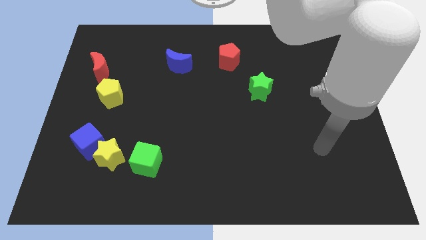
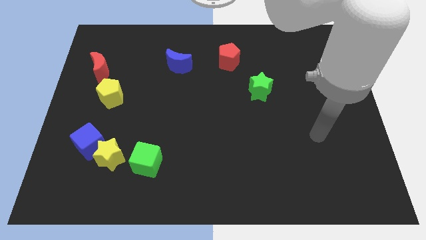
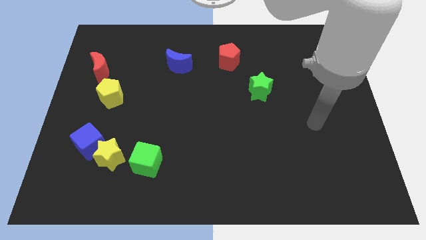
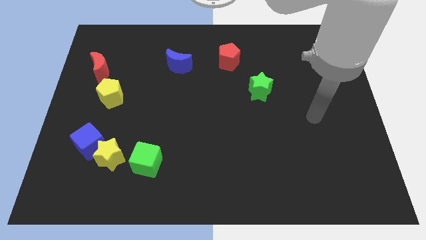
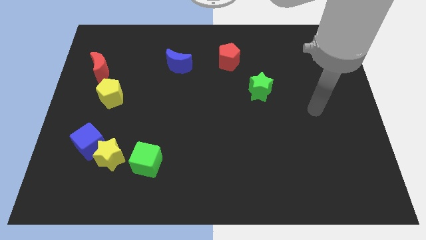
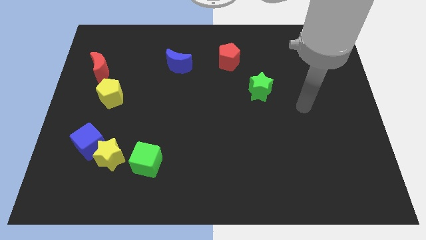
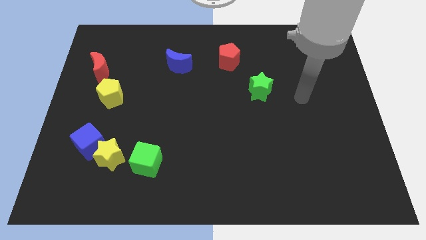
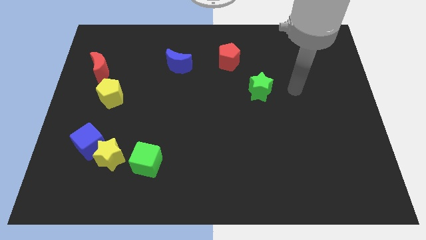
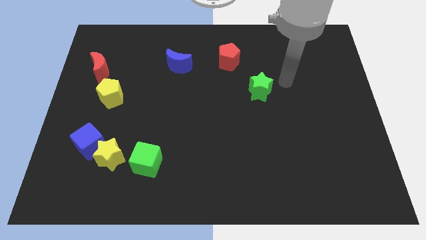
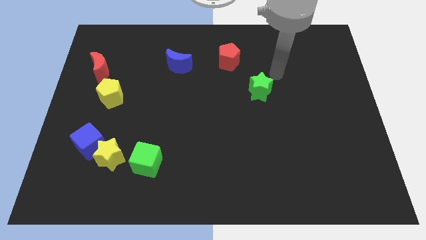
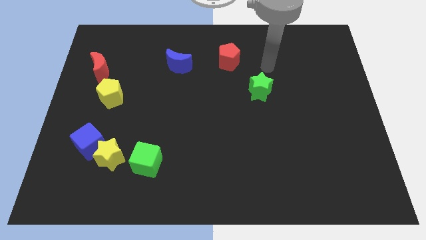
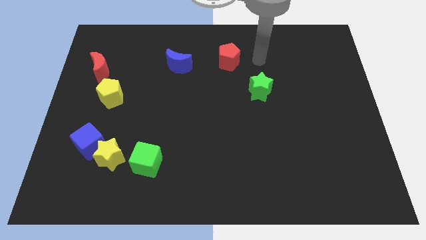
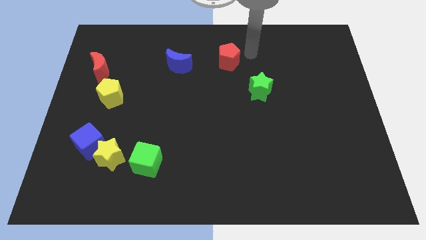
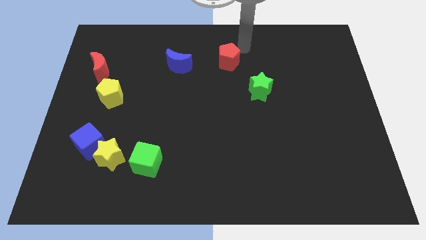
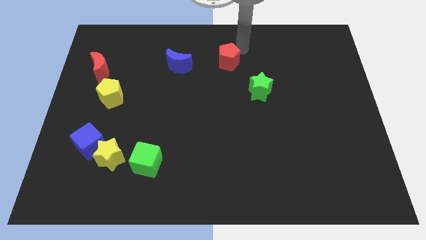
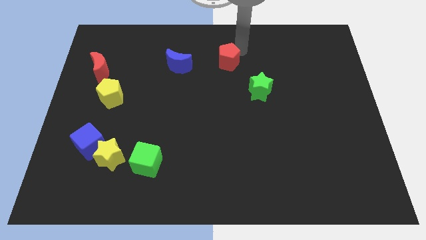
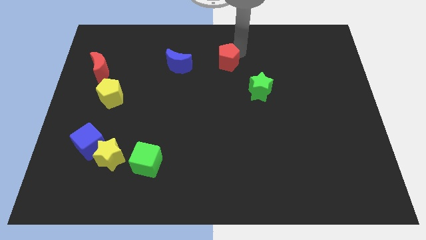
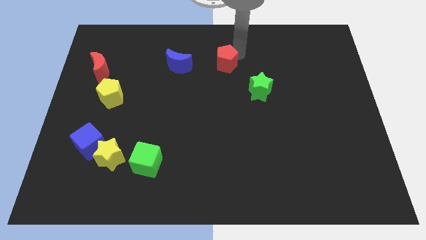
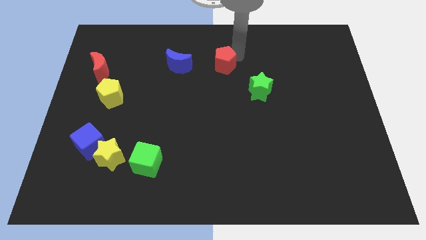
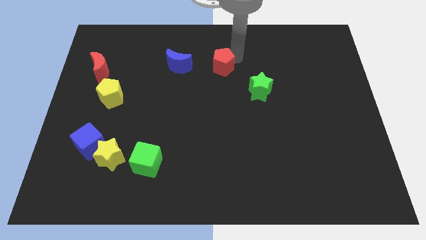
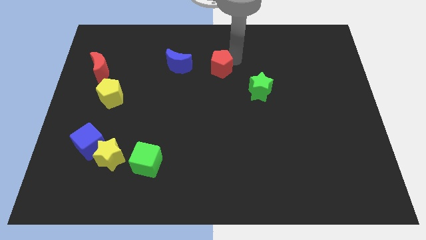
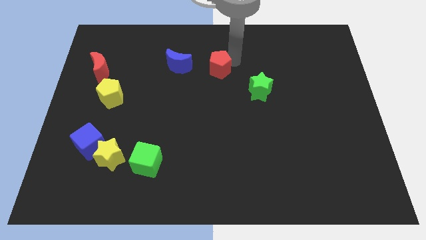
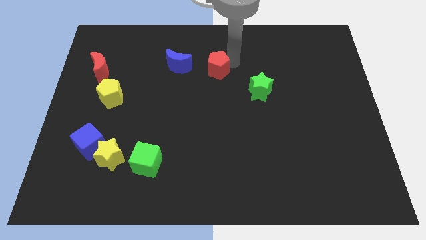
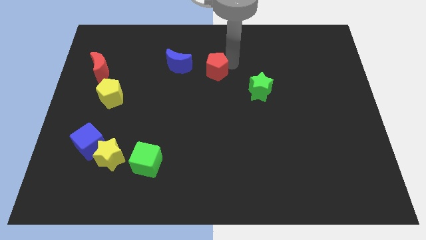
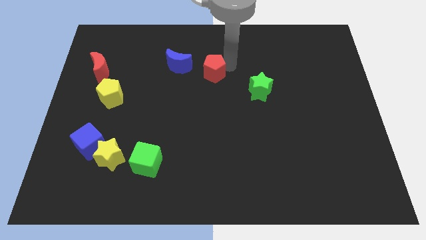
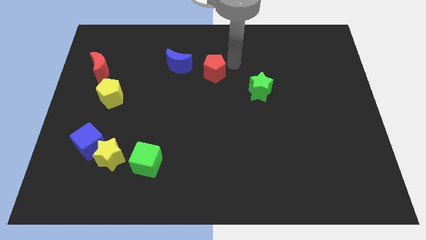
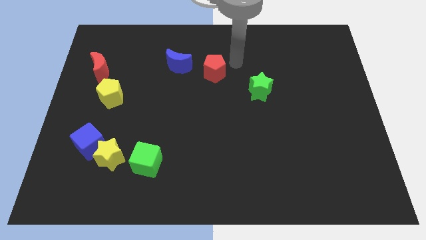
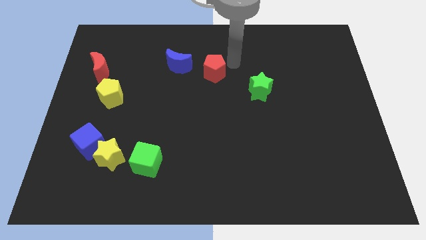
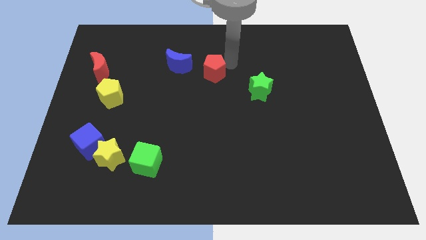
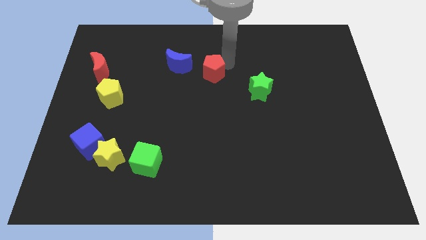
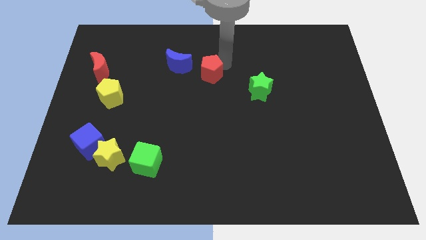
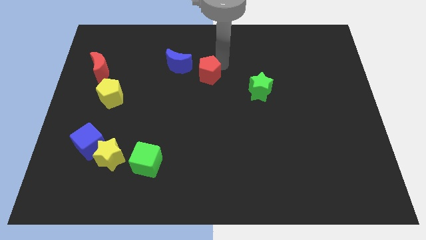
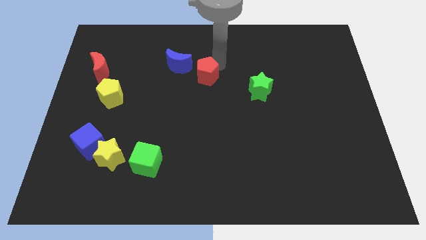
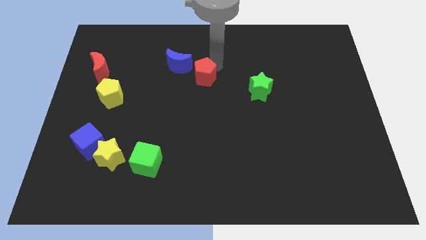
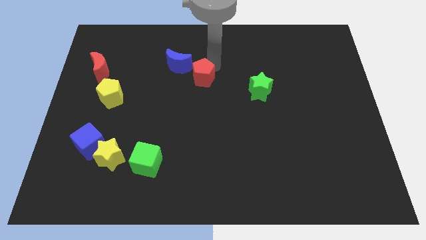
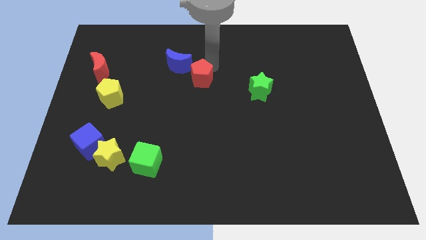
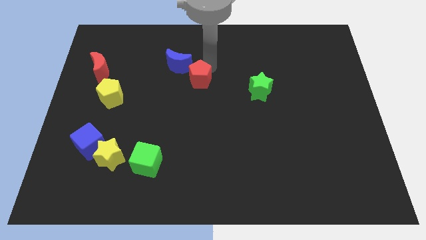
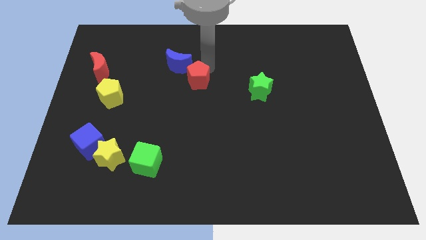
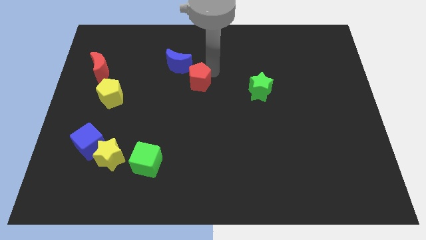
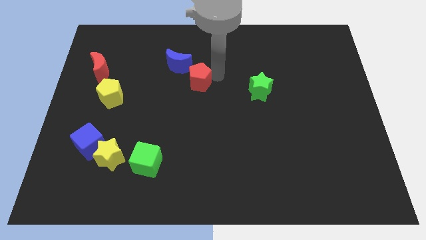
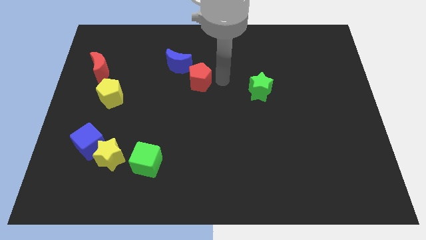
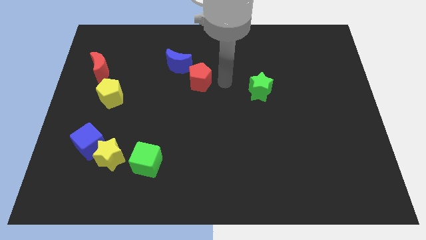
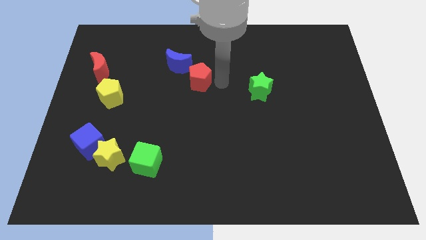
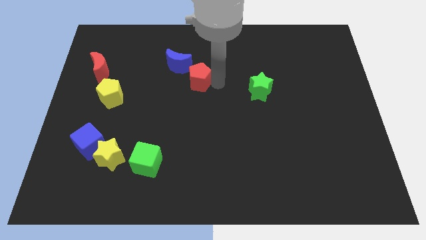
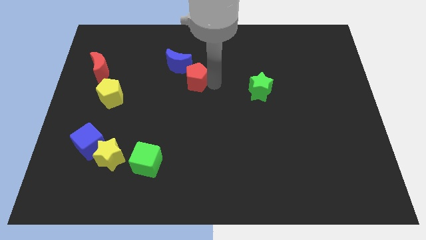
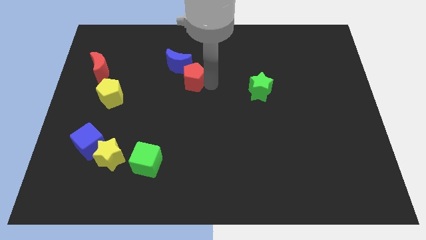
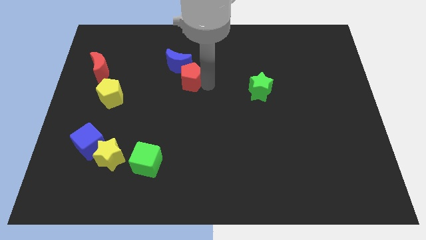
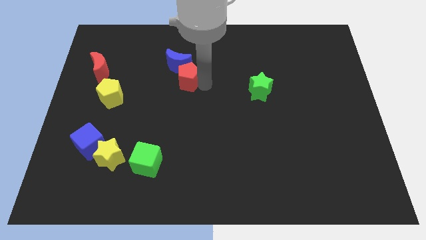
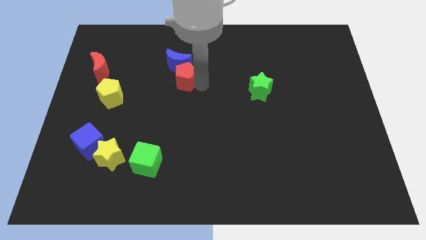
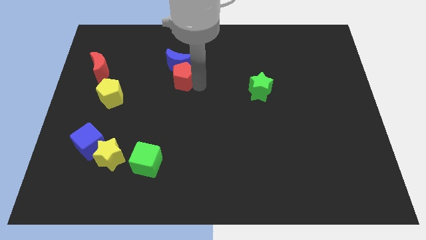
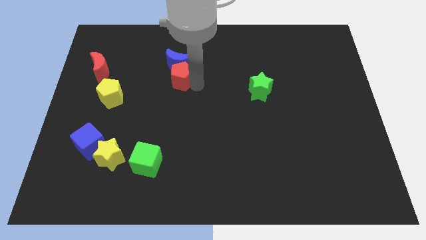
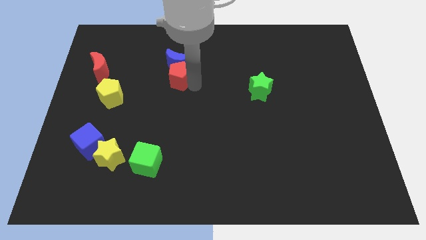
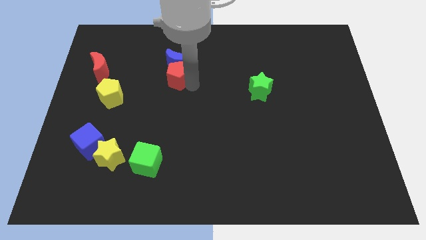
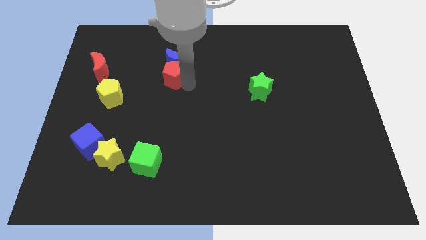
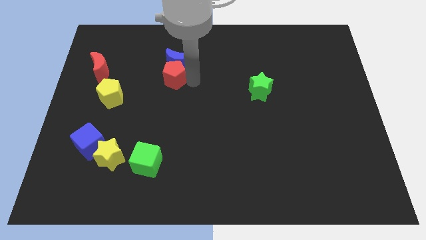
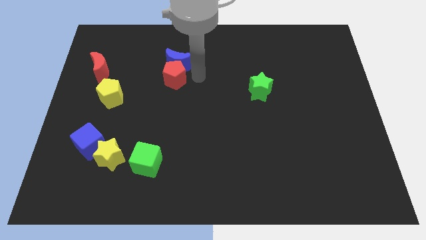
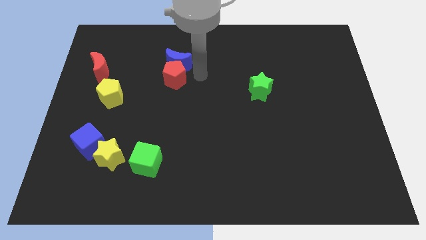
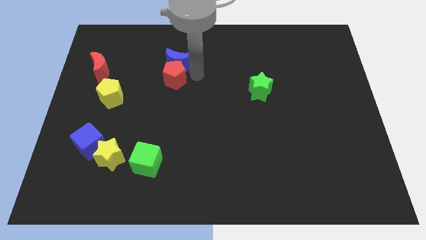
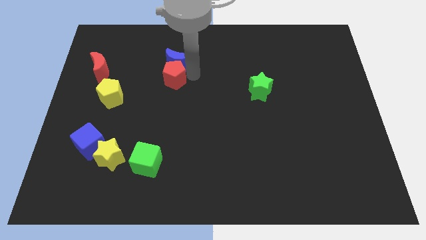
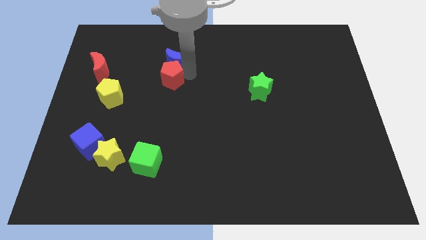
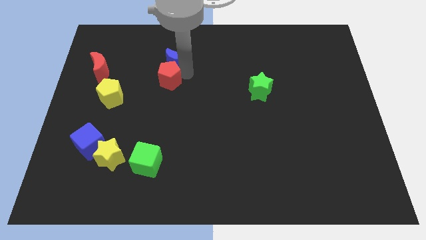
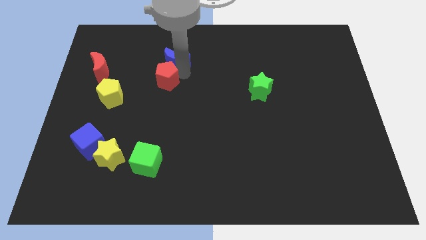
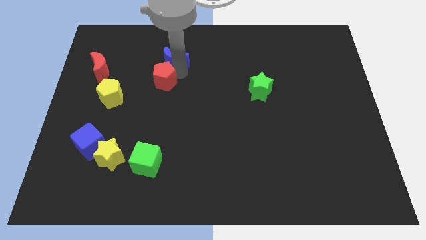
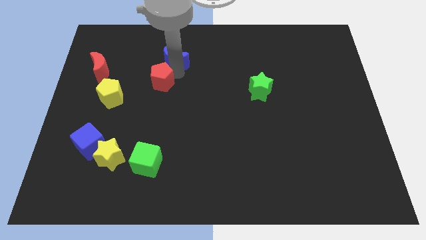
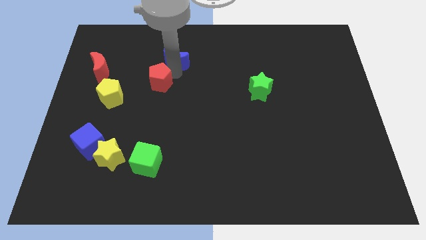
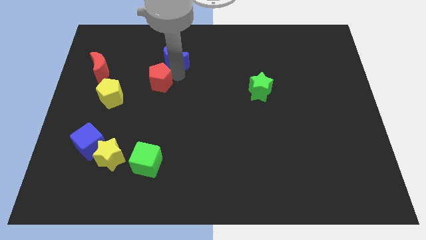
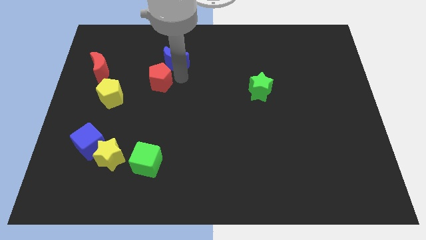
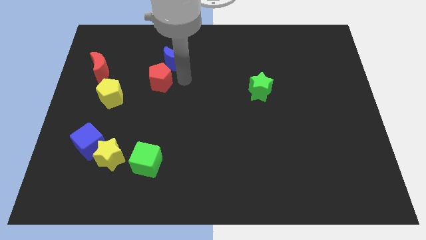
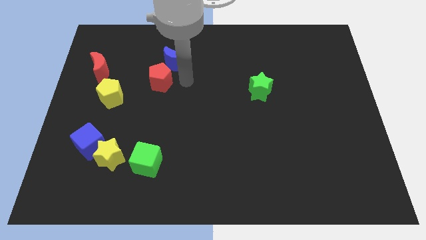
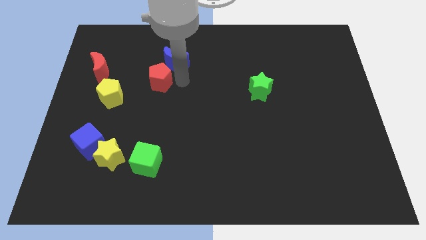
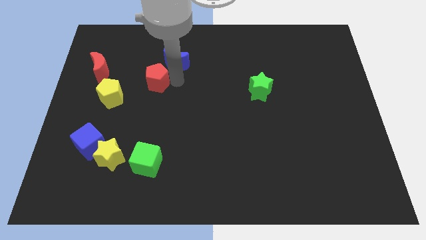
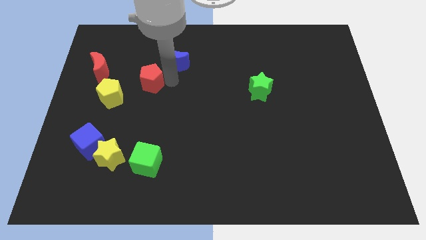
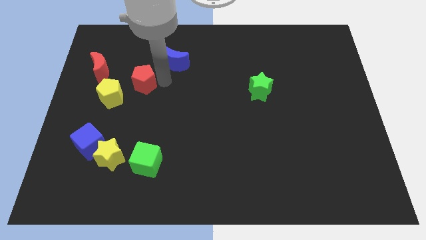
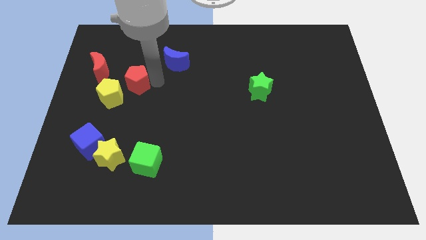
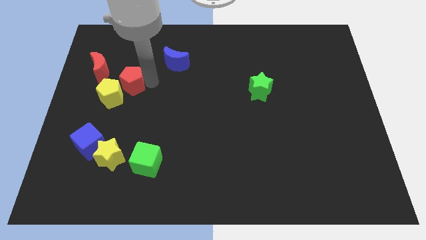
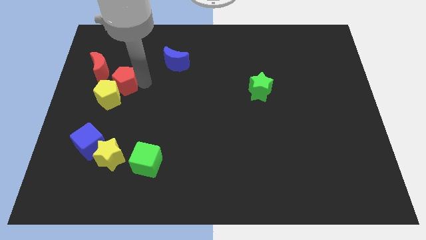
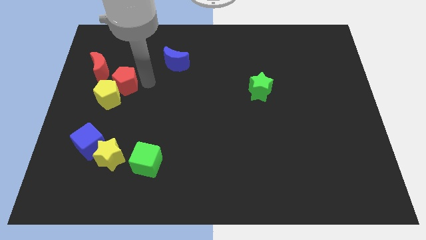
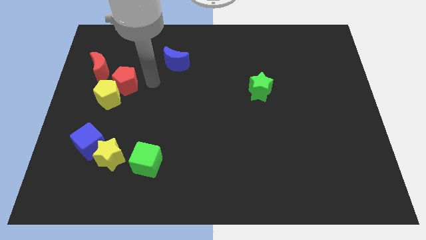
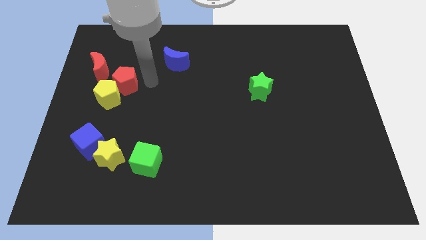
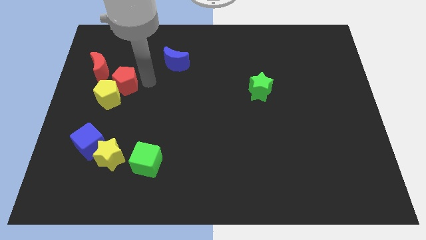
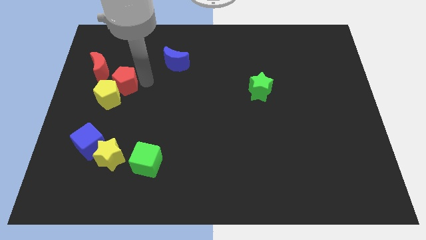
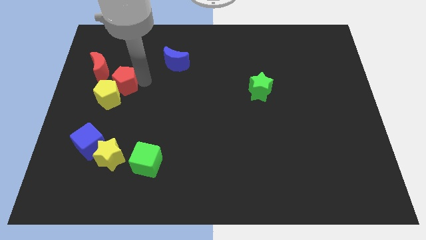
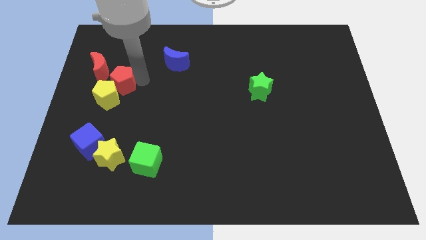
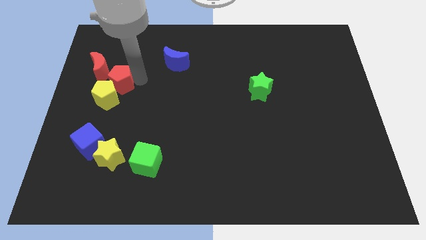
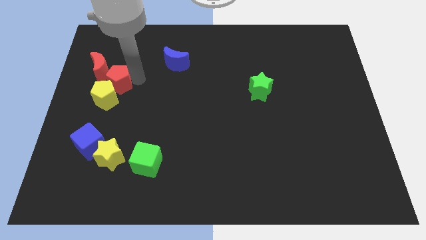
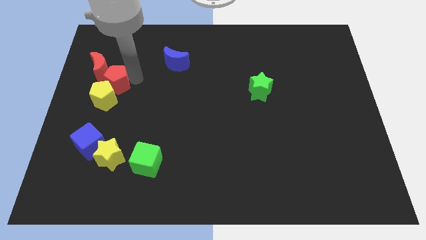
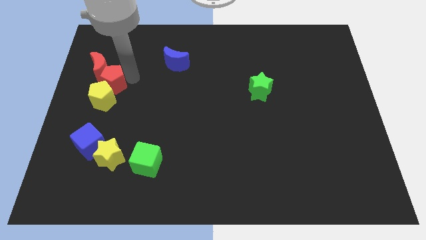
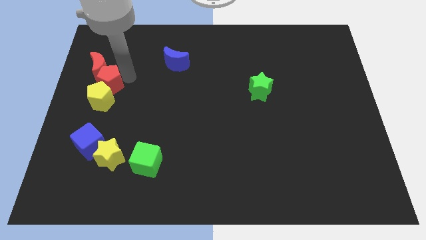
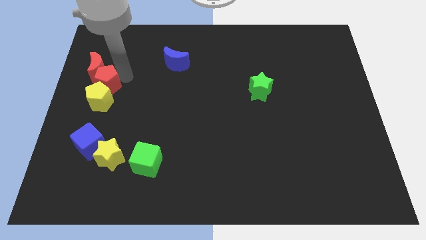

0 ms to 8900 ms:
push the red pentagon to the left side of the board
